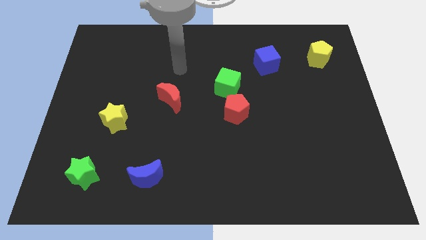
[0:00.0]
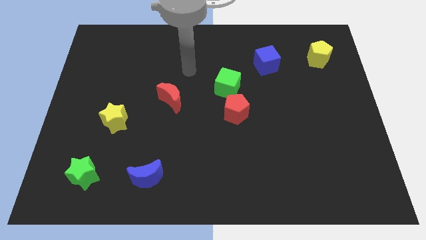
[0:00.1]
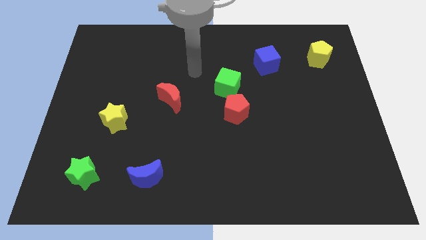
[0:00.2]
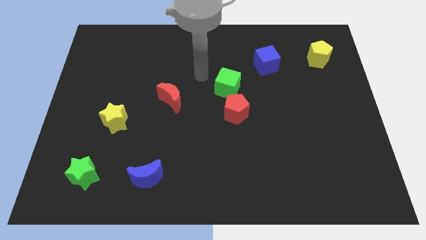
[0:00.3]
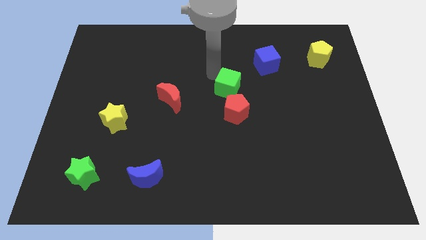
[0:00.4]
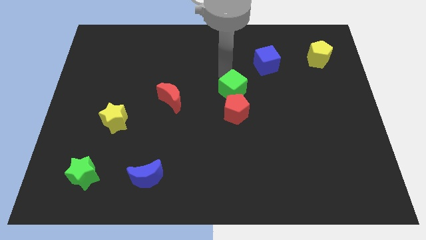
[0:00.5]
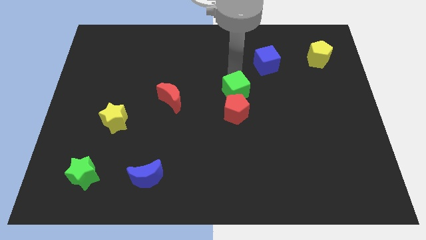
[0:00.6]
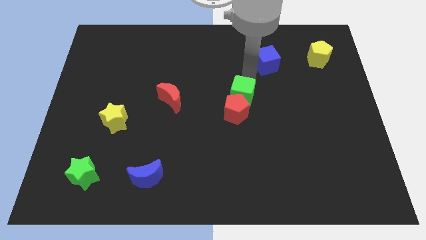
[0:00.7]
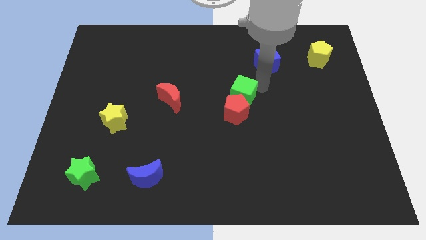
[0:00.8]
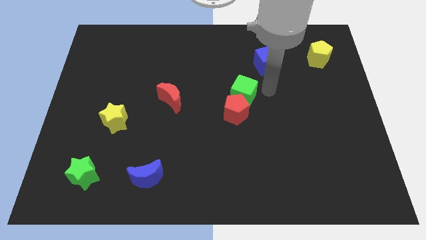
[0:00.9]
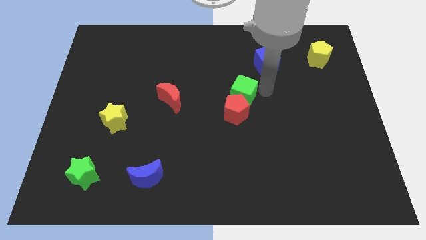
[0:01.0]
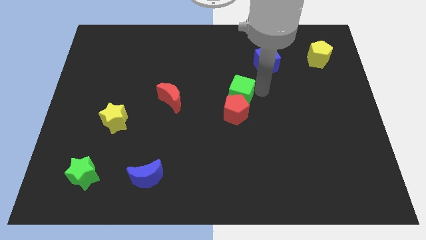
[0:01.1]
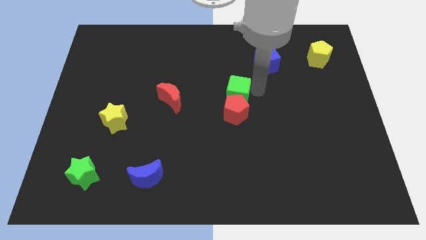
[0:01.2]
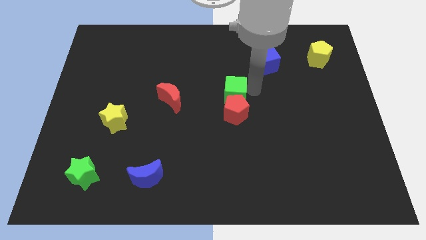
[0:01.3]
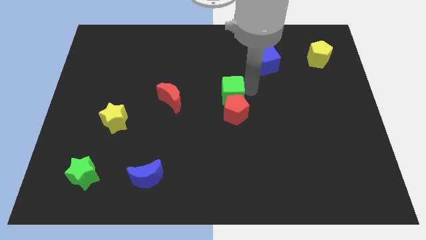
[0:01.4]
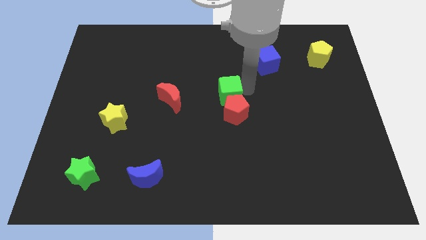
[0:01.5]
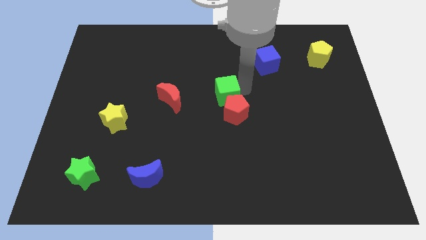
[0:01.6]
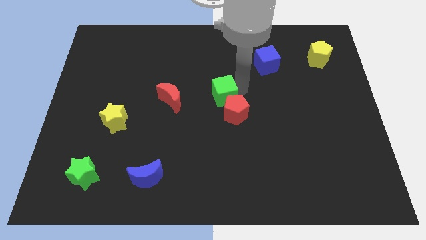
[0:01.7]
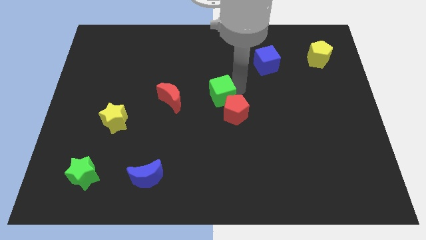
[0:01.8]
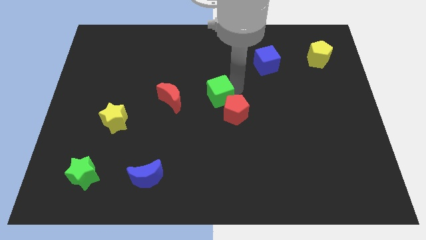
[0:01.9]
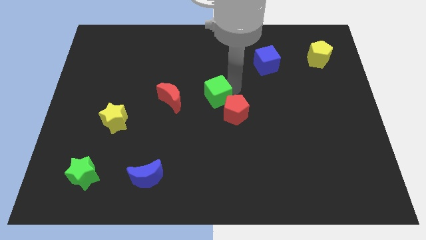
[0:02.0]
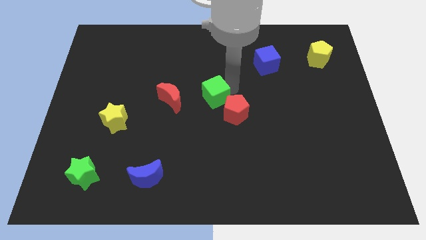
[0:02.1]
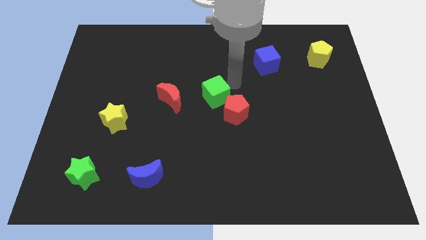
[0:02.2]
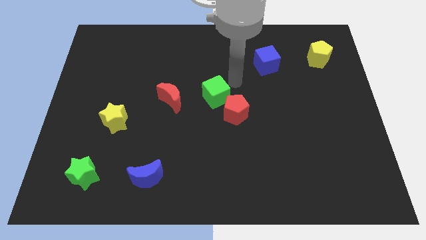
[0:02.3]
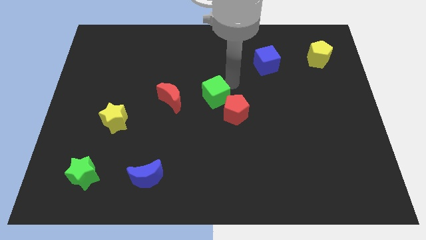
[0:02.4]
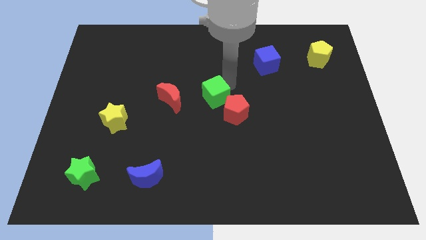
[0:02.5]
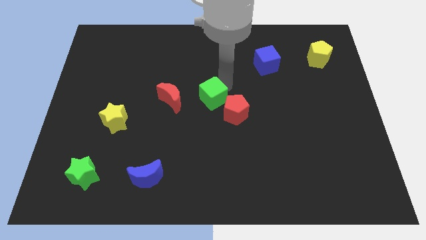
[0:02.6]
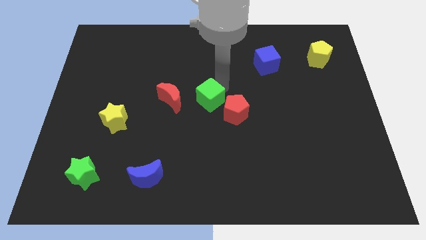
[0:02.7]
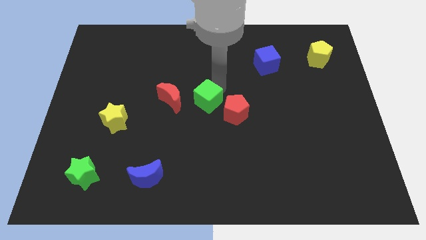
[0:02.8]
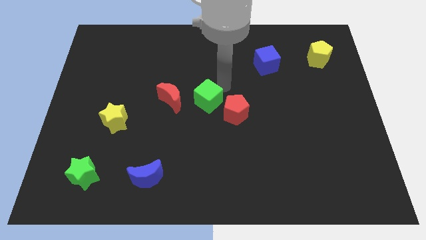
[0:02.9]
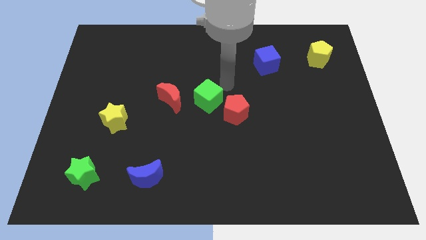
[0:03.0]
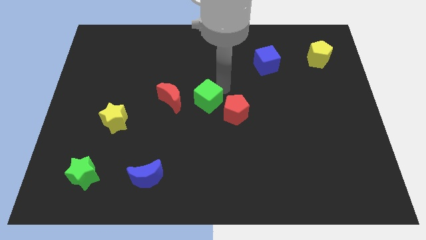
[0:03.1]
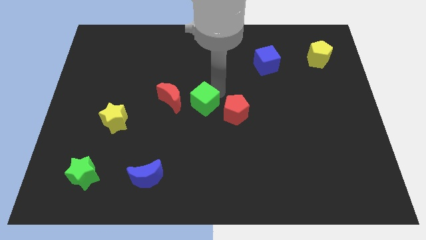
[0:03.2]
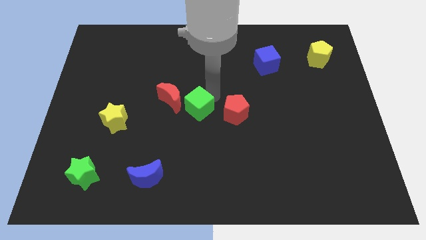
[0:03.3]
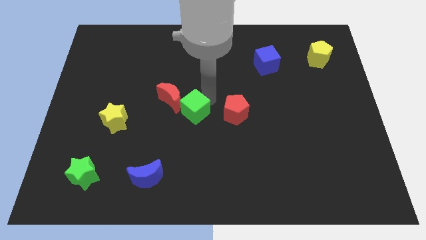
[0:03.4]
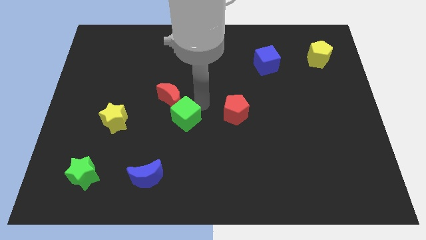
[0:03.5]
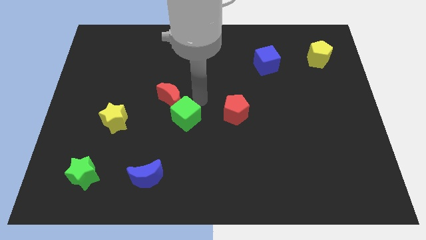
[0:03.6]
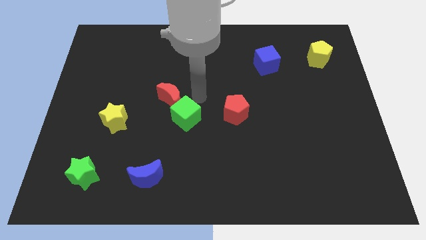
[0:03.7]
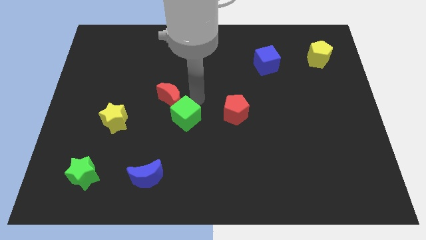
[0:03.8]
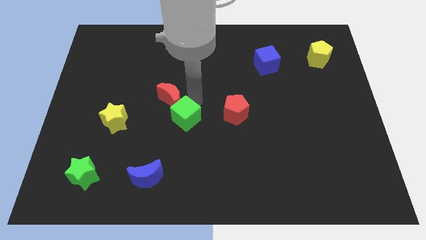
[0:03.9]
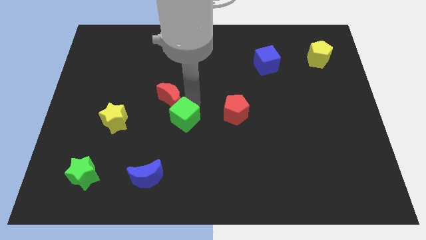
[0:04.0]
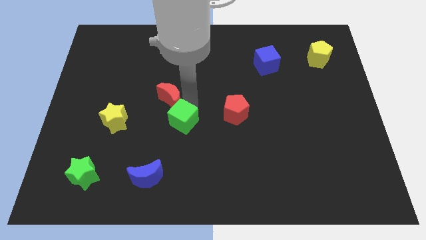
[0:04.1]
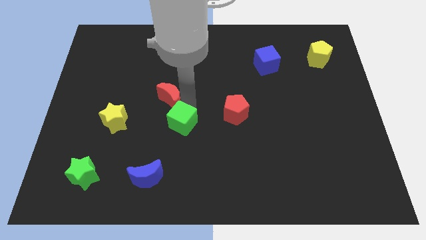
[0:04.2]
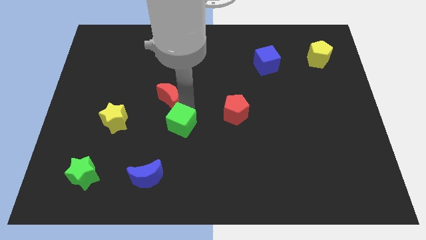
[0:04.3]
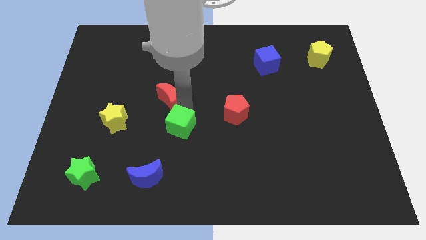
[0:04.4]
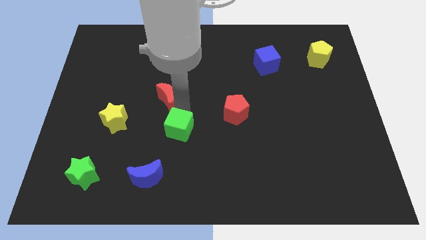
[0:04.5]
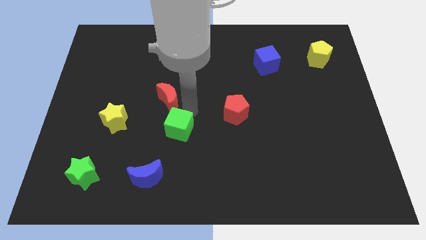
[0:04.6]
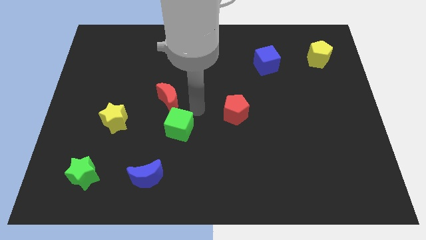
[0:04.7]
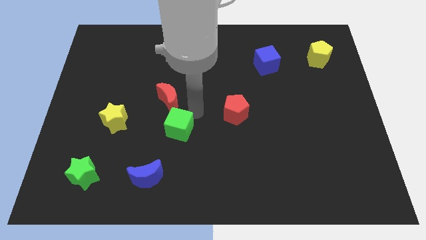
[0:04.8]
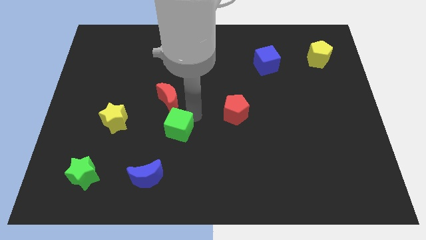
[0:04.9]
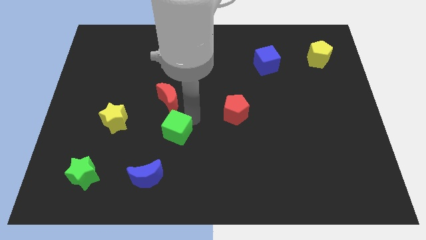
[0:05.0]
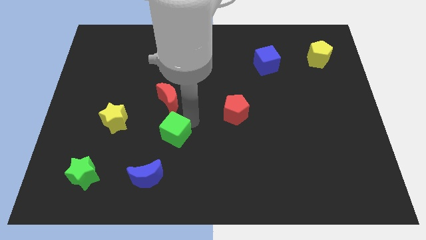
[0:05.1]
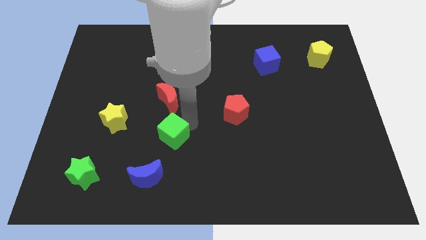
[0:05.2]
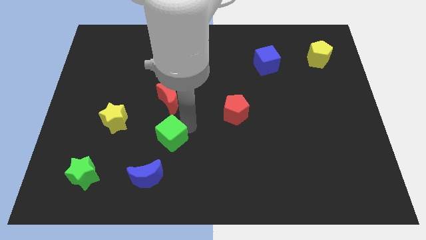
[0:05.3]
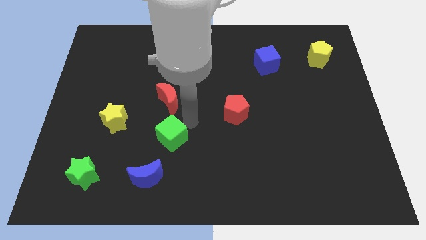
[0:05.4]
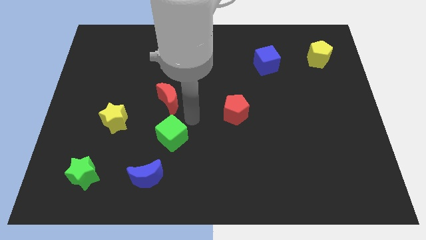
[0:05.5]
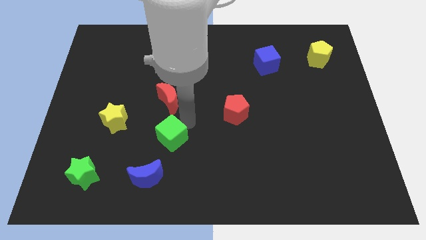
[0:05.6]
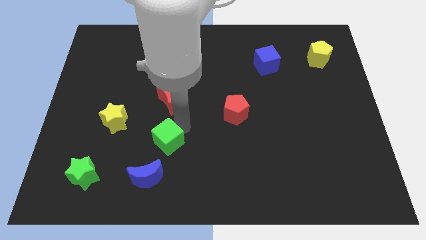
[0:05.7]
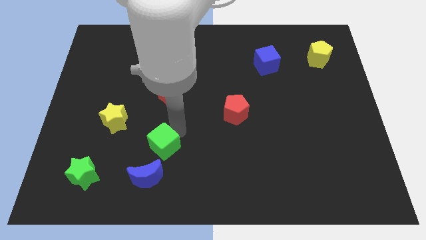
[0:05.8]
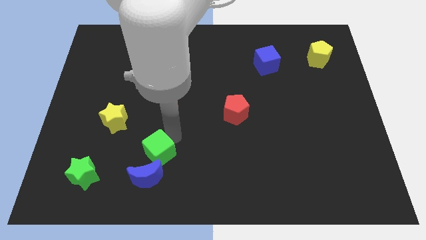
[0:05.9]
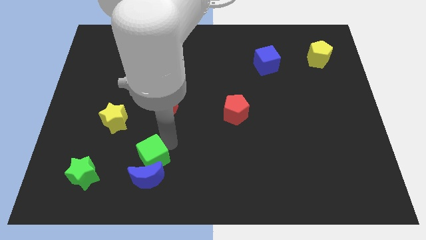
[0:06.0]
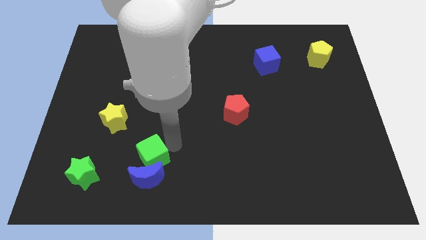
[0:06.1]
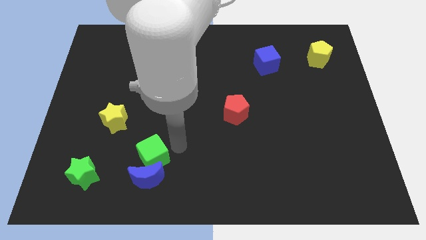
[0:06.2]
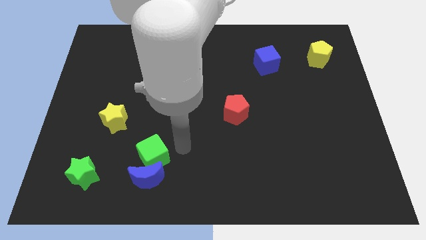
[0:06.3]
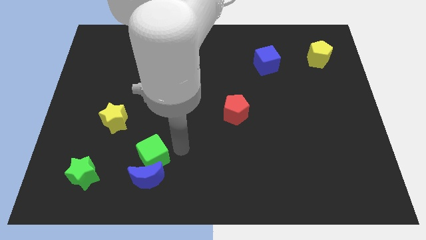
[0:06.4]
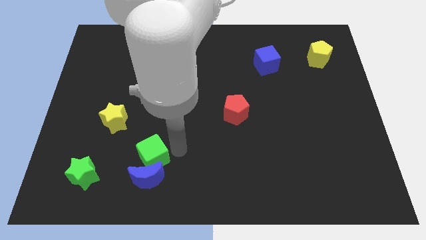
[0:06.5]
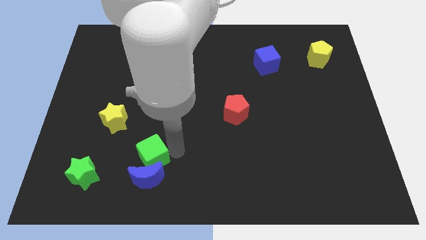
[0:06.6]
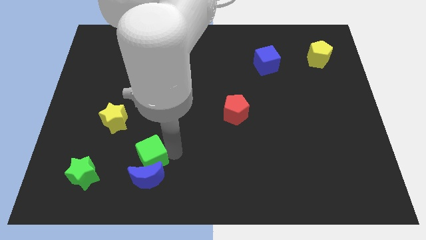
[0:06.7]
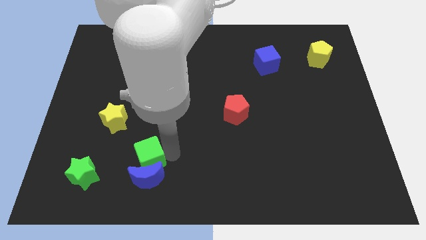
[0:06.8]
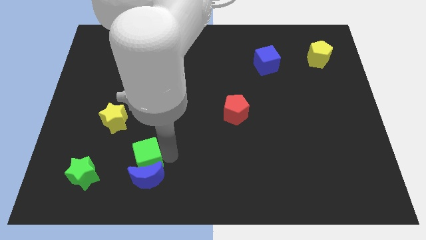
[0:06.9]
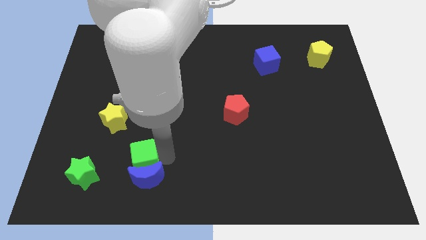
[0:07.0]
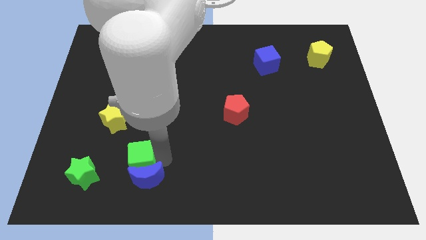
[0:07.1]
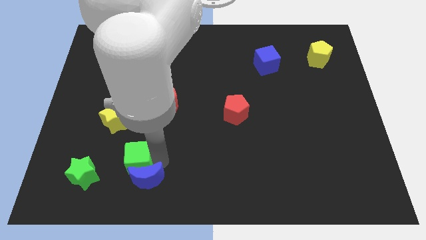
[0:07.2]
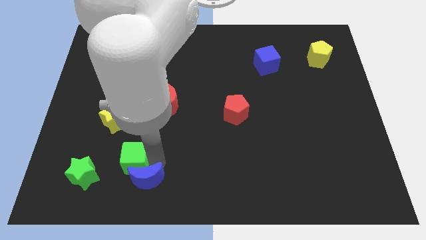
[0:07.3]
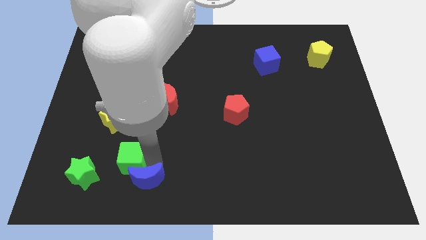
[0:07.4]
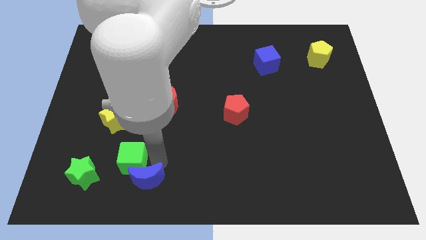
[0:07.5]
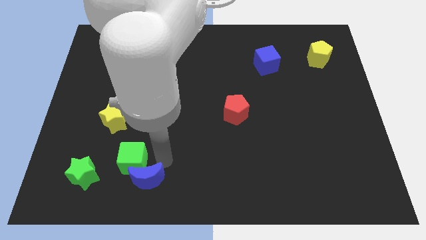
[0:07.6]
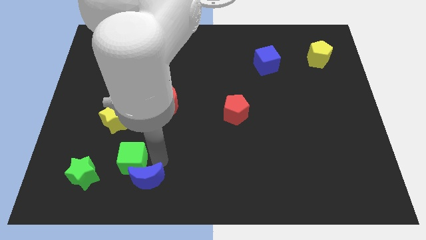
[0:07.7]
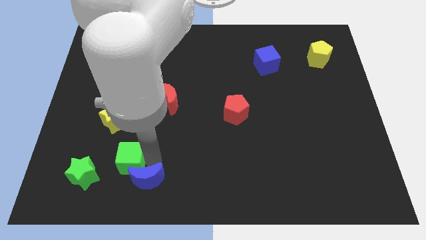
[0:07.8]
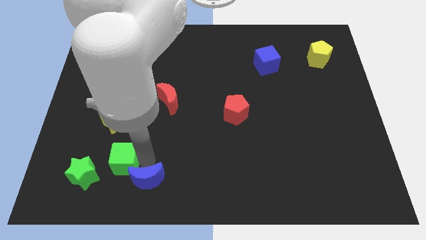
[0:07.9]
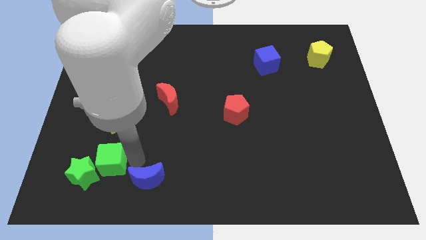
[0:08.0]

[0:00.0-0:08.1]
put the green cube close to the green star
